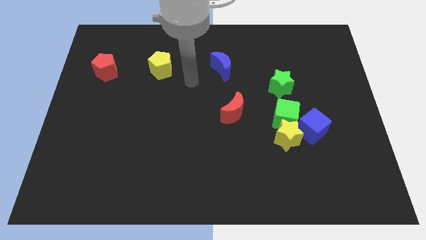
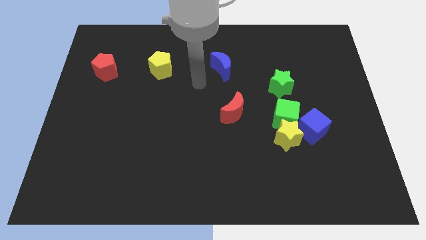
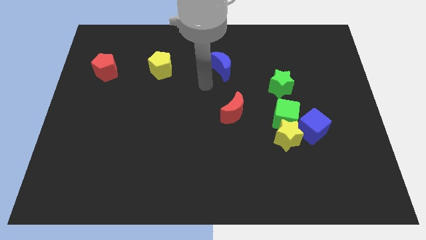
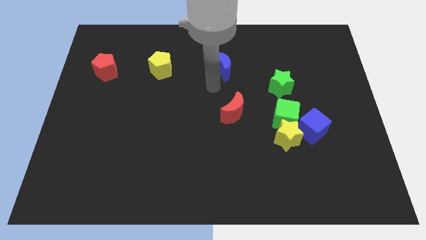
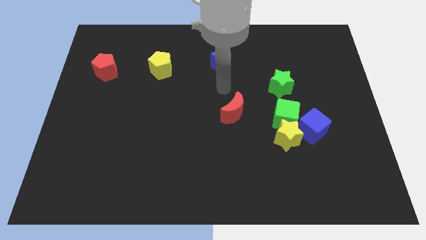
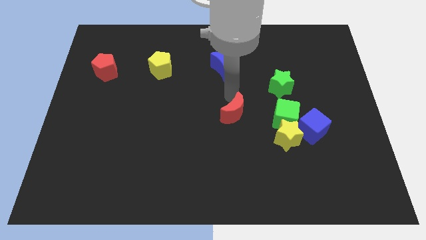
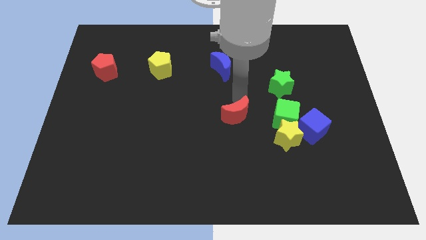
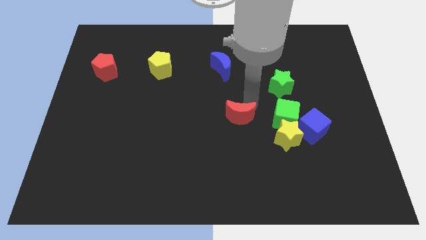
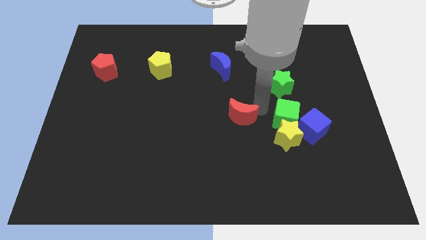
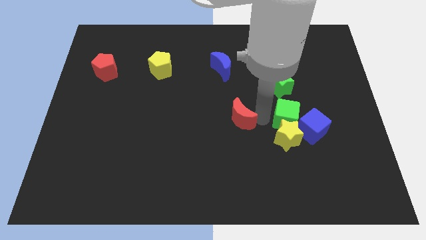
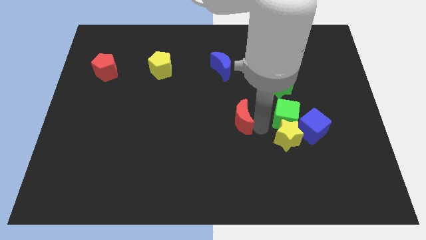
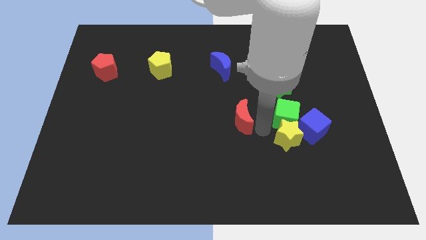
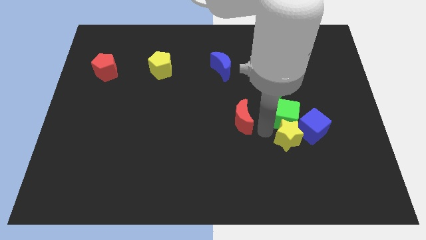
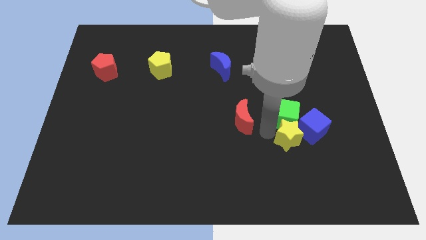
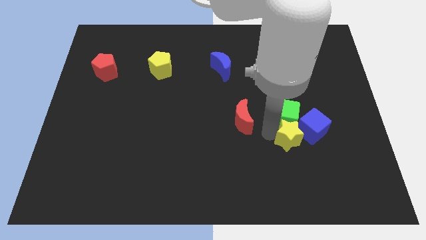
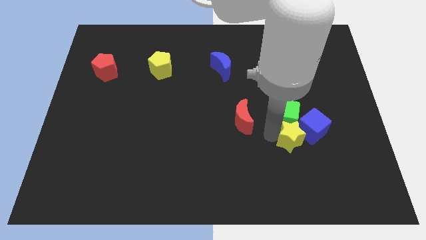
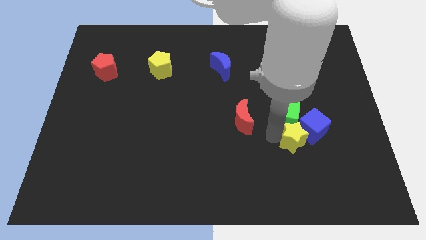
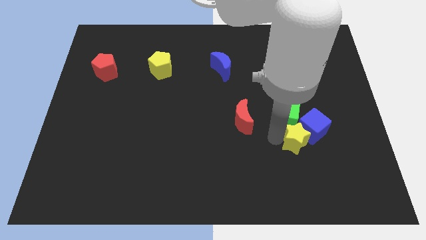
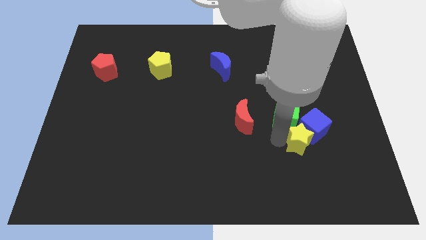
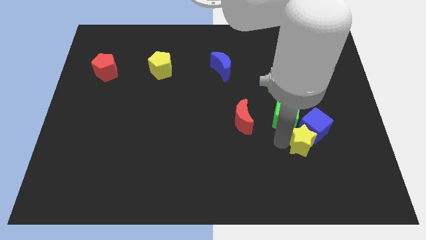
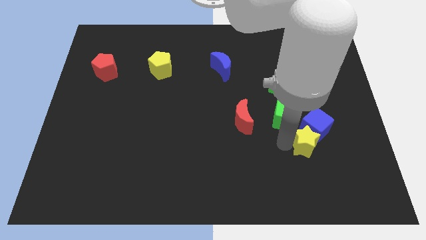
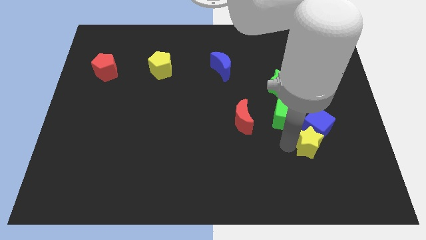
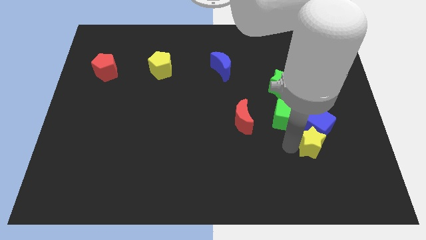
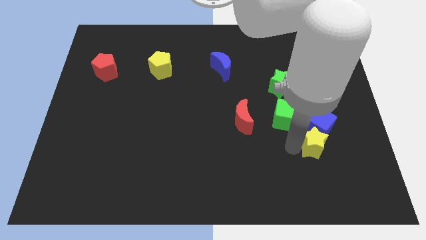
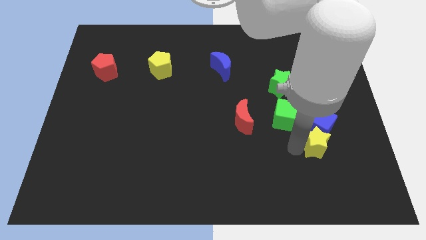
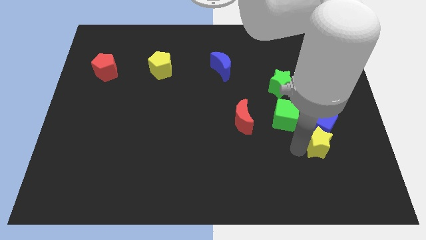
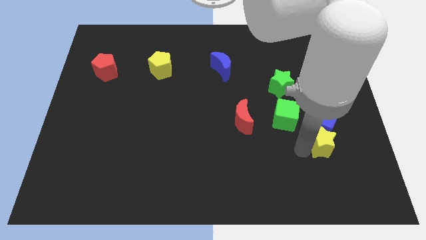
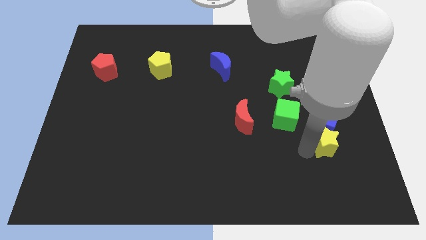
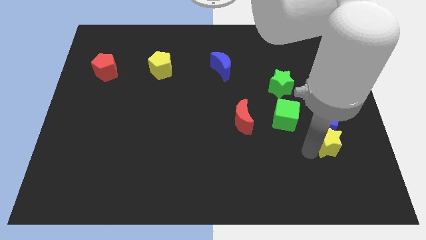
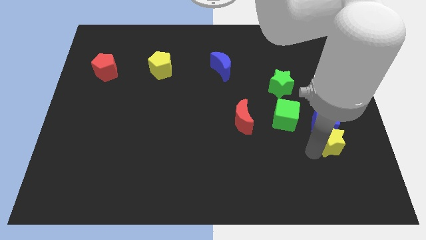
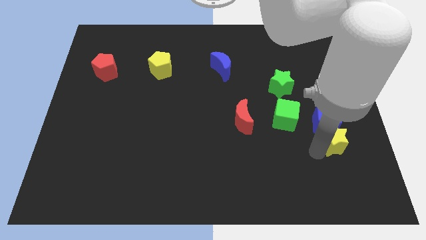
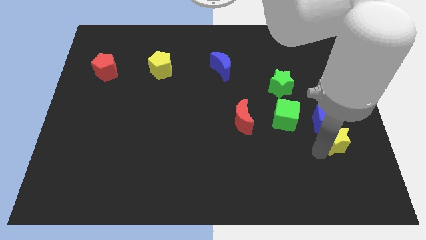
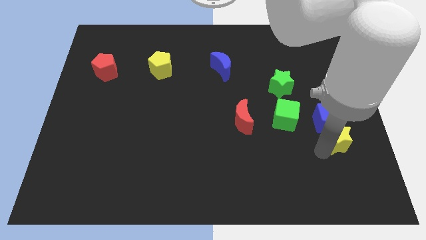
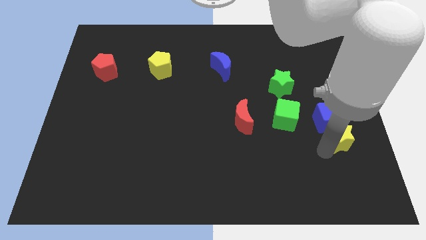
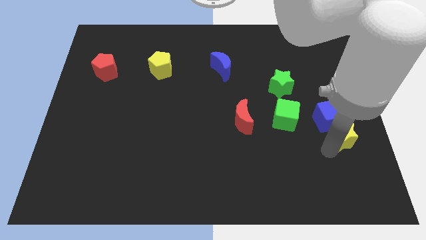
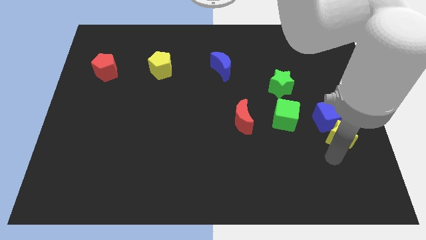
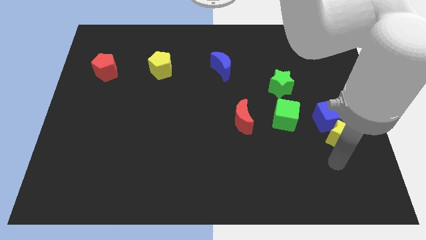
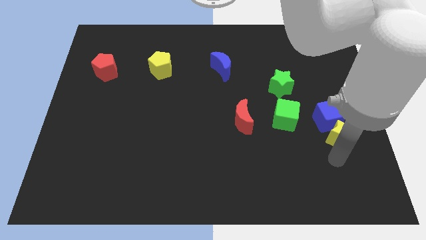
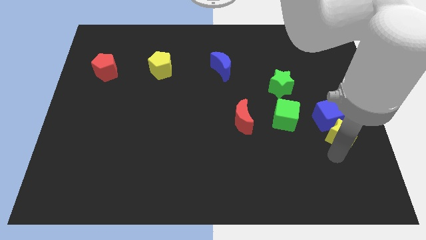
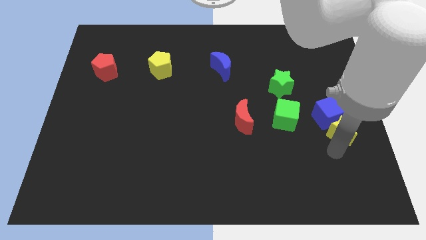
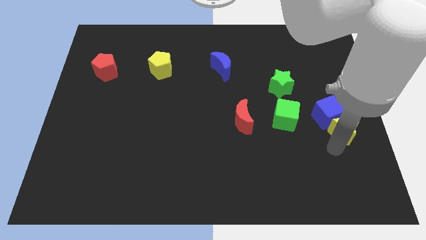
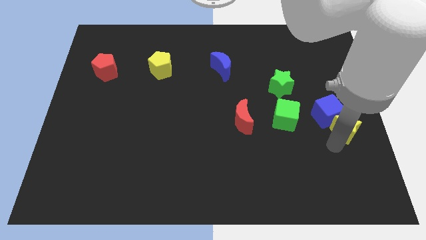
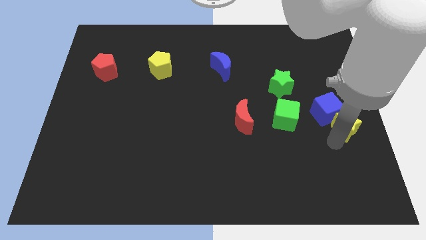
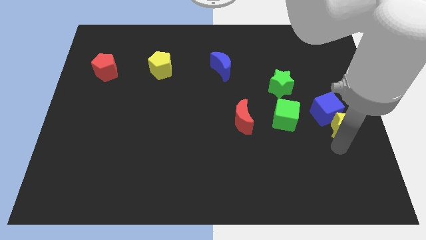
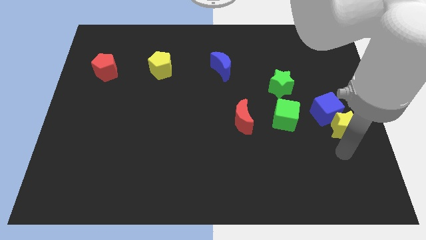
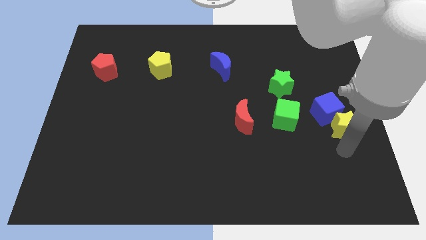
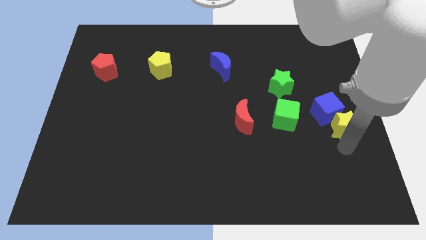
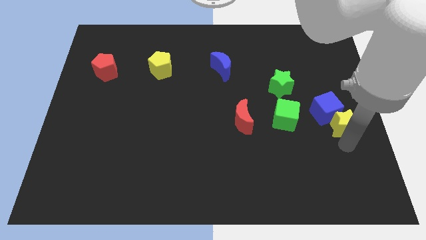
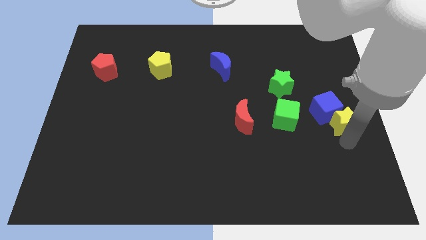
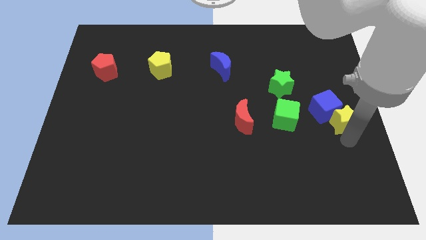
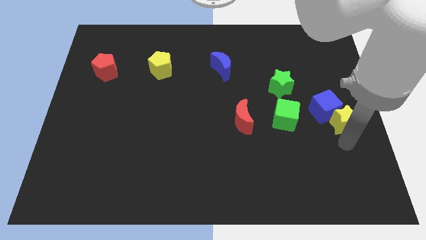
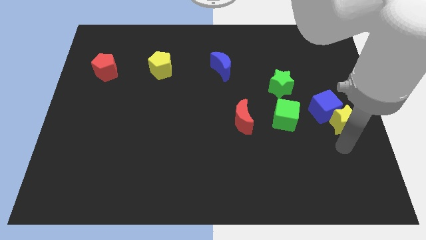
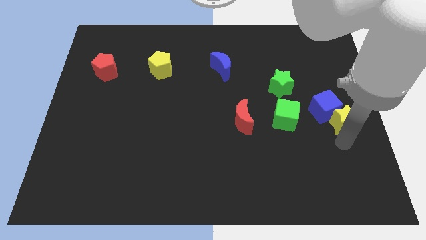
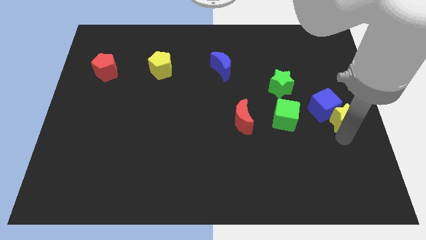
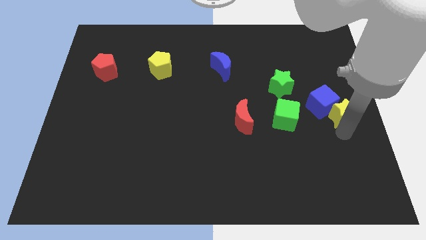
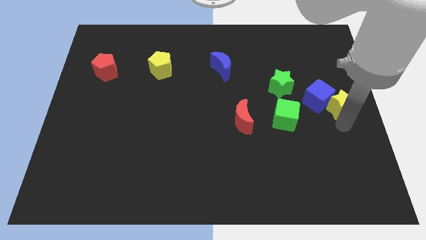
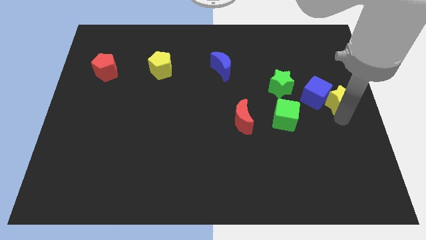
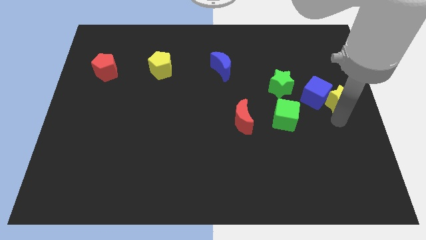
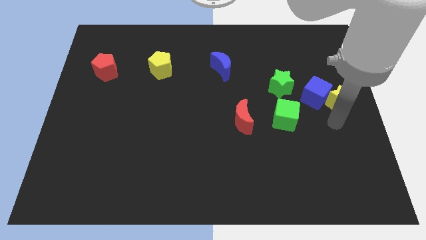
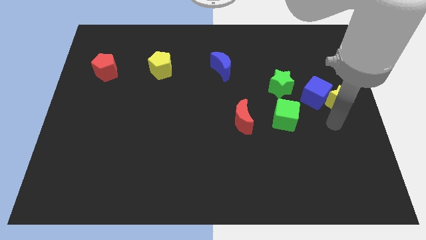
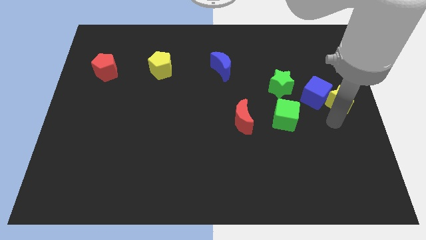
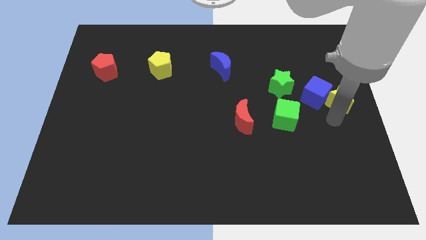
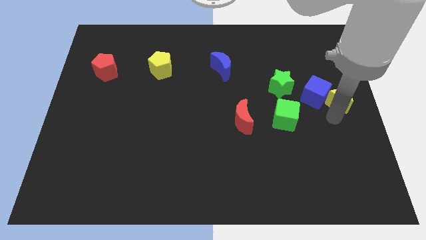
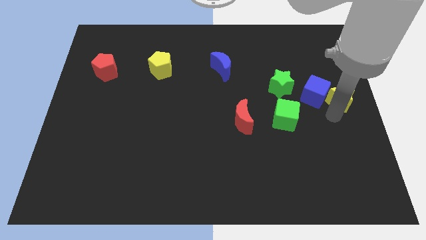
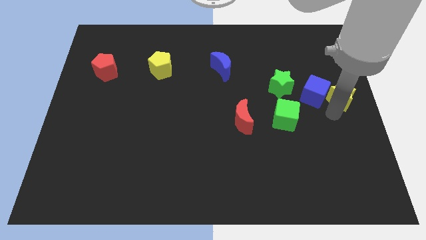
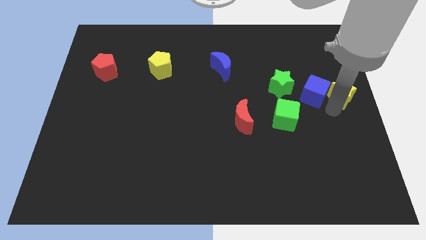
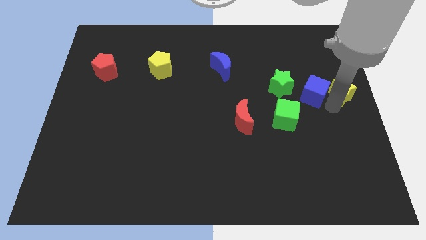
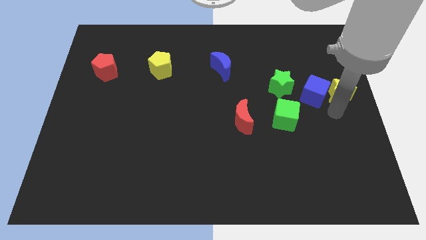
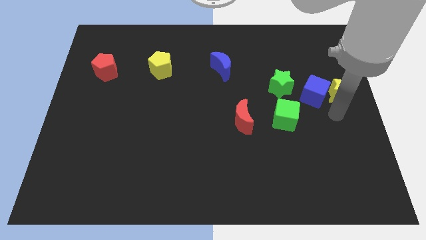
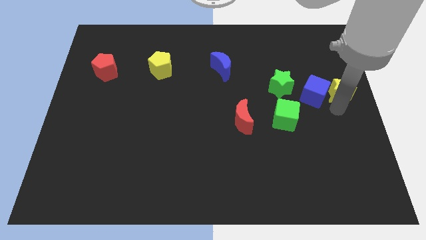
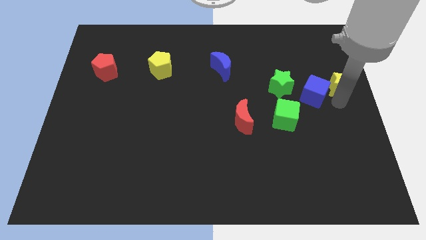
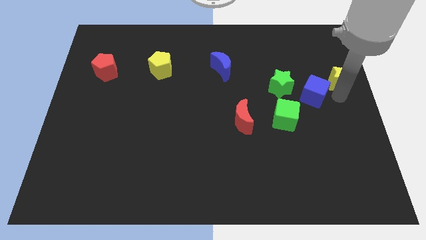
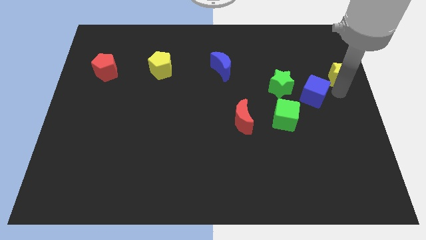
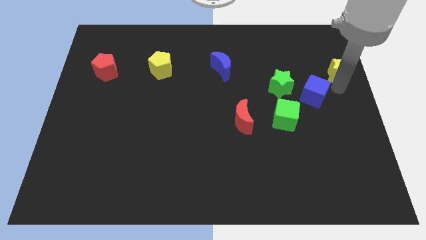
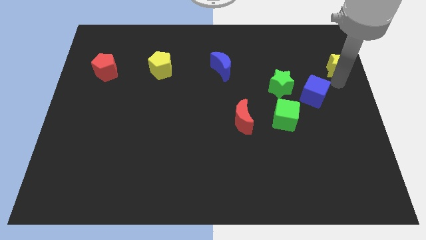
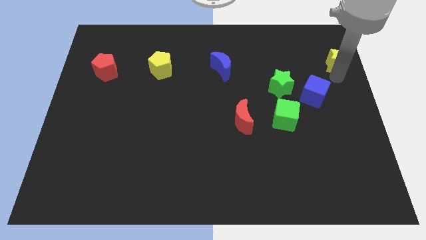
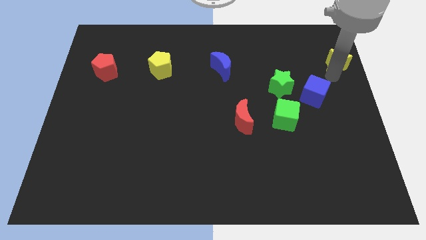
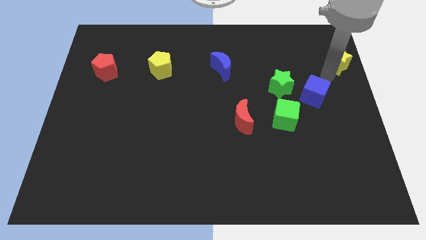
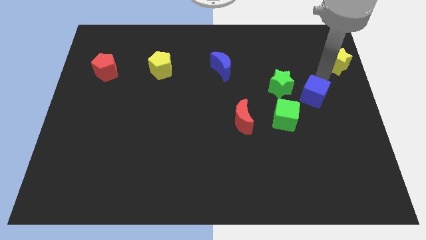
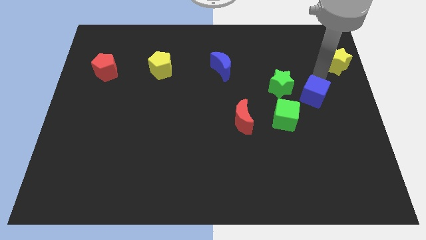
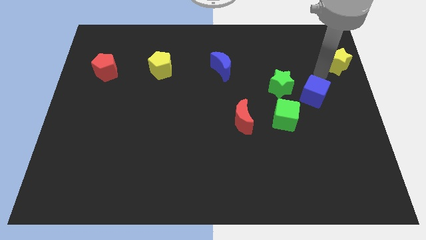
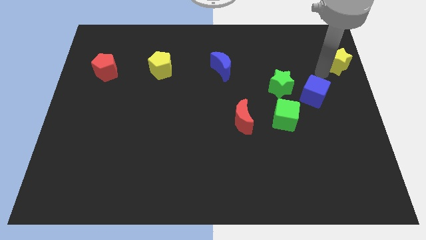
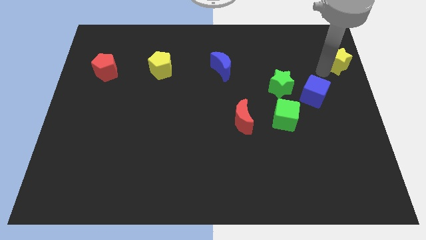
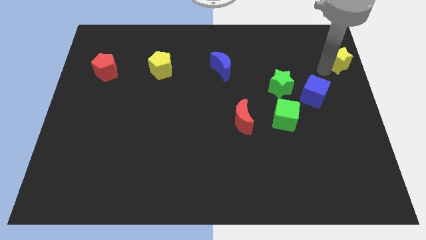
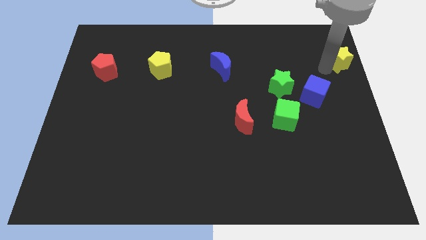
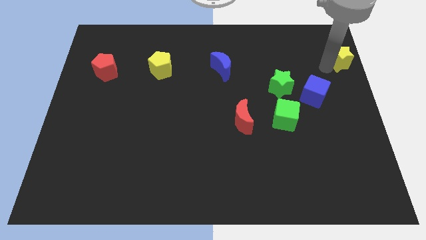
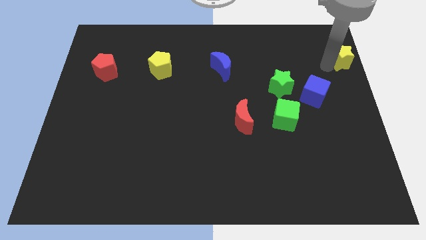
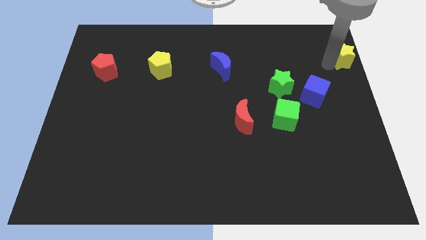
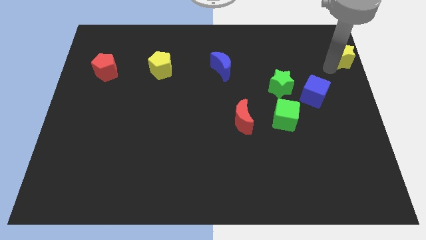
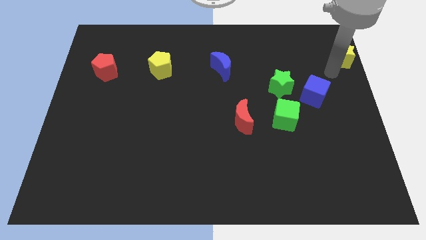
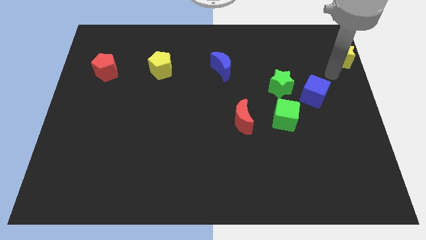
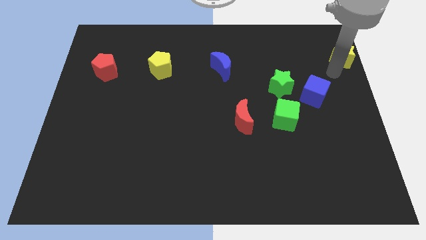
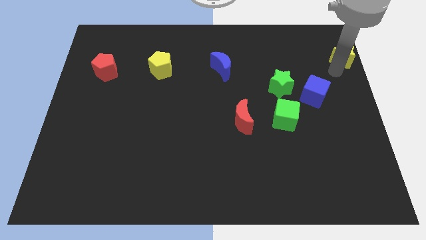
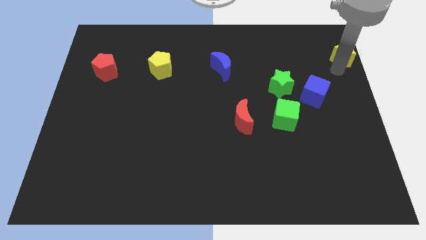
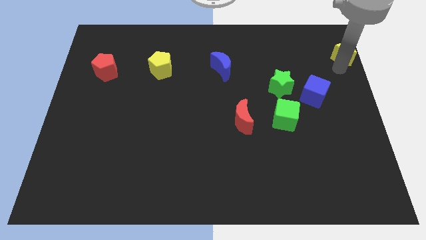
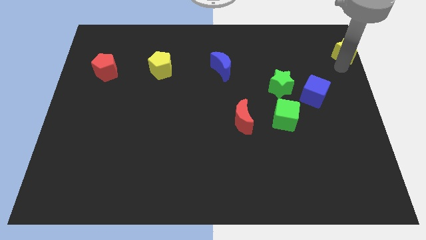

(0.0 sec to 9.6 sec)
put the yellow star to the top right corner
